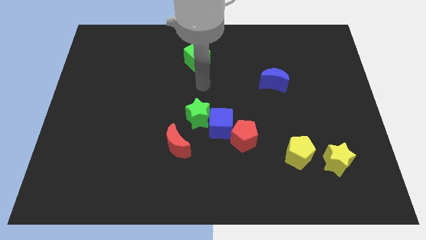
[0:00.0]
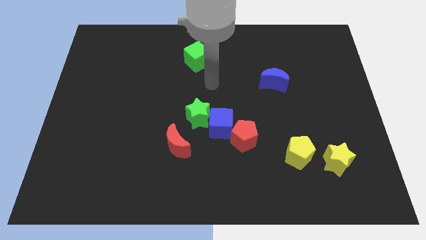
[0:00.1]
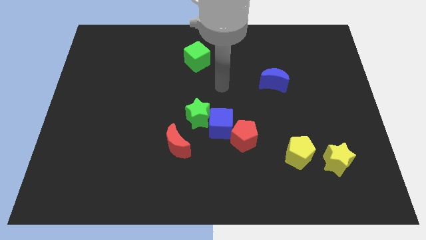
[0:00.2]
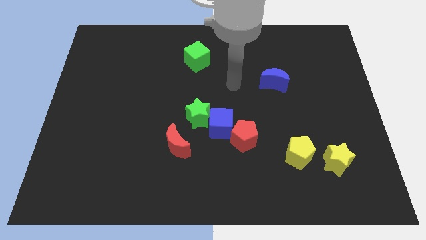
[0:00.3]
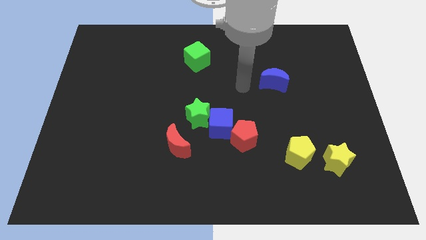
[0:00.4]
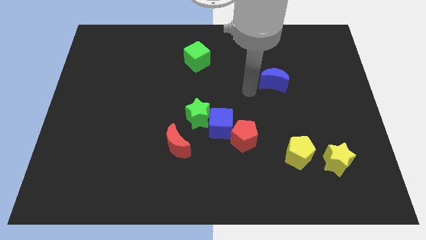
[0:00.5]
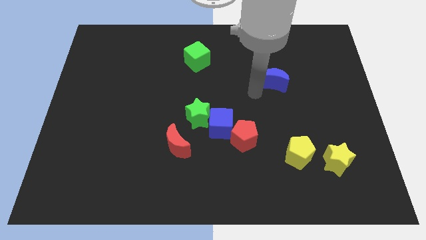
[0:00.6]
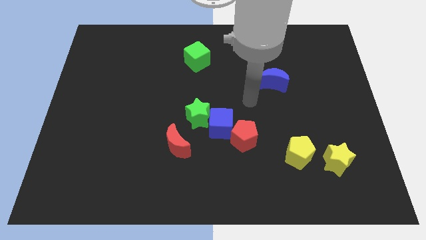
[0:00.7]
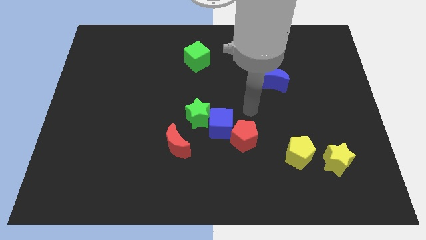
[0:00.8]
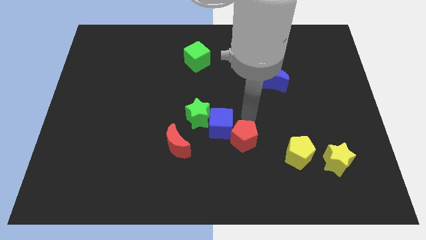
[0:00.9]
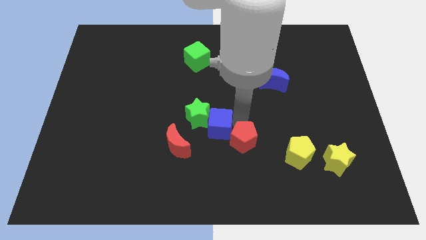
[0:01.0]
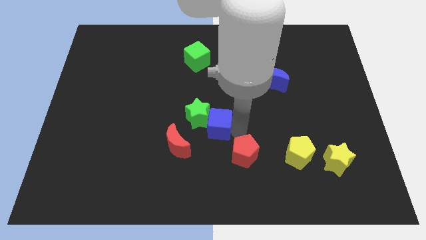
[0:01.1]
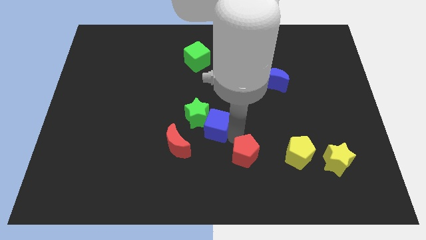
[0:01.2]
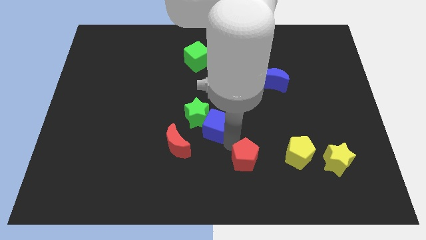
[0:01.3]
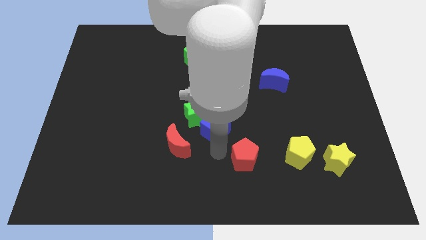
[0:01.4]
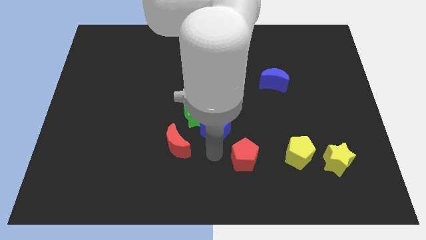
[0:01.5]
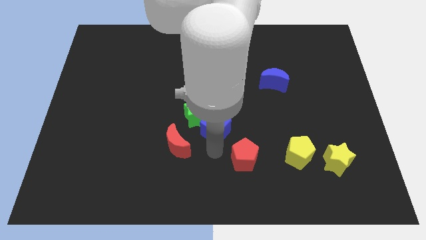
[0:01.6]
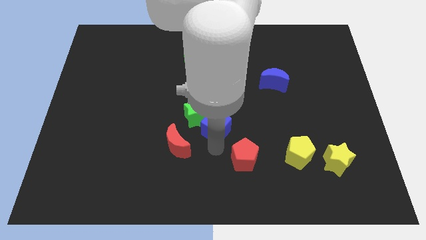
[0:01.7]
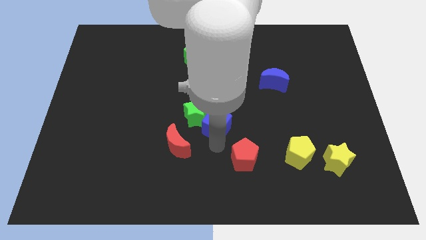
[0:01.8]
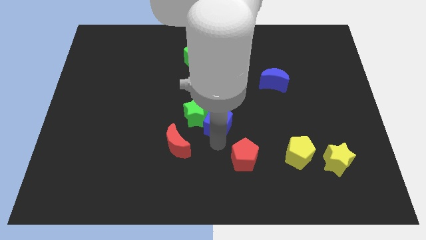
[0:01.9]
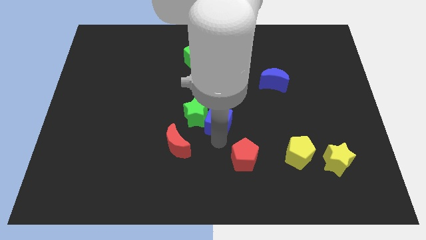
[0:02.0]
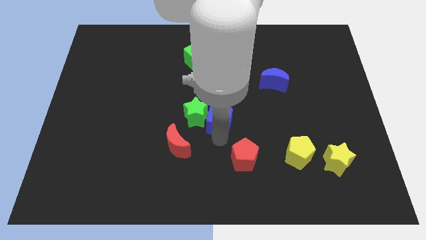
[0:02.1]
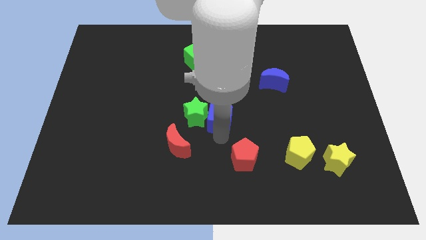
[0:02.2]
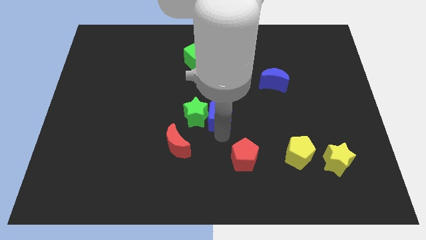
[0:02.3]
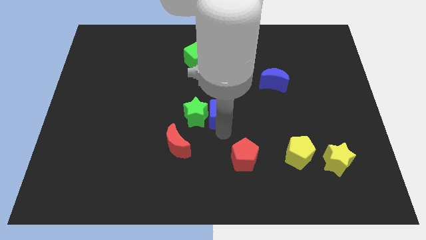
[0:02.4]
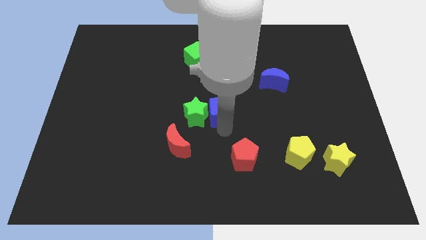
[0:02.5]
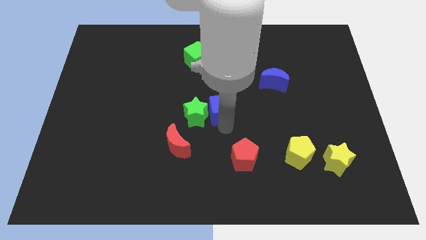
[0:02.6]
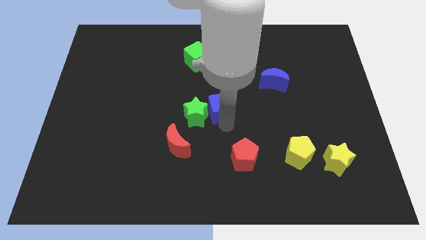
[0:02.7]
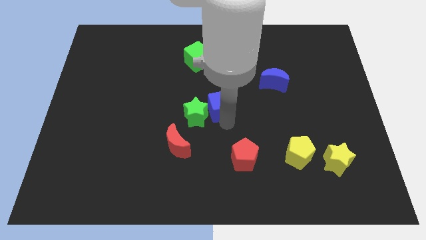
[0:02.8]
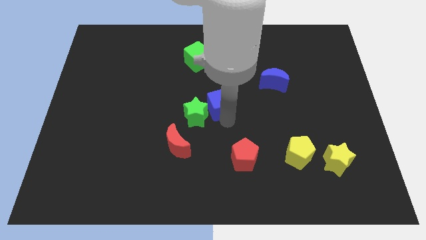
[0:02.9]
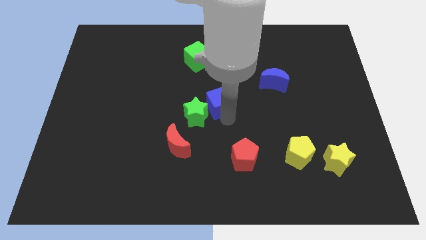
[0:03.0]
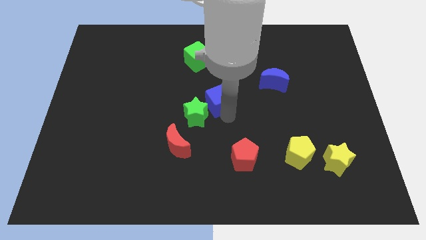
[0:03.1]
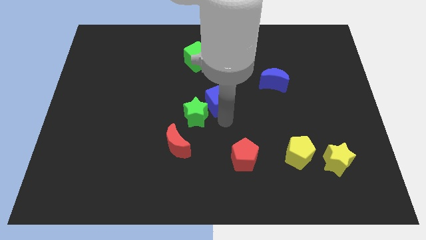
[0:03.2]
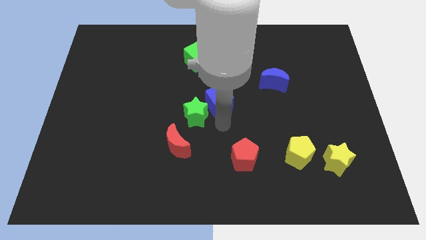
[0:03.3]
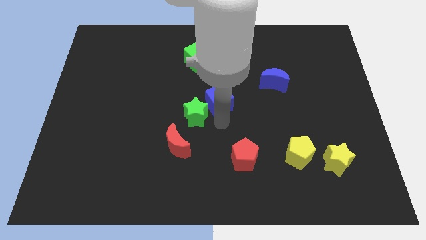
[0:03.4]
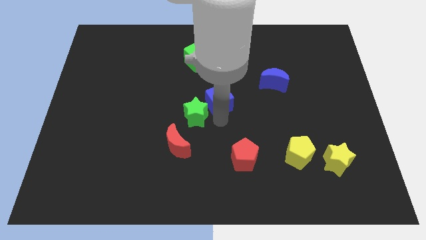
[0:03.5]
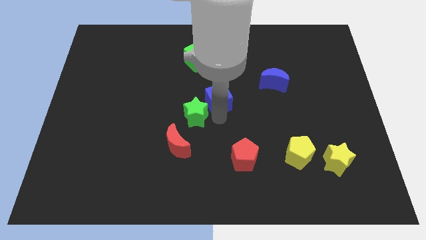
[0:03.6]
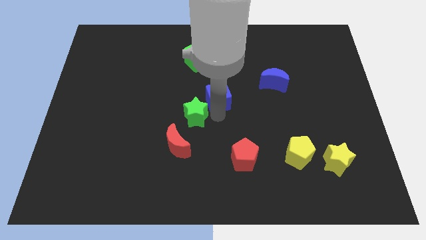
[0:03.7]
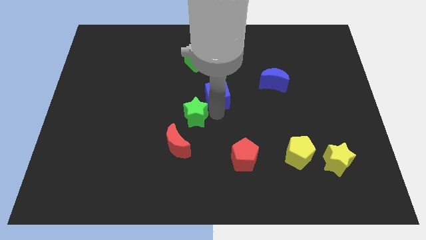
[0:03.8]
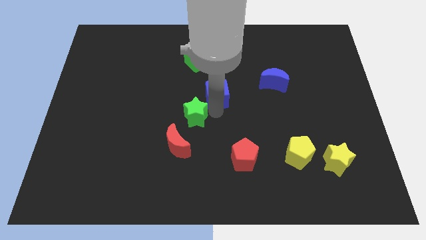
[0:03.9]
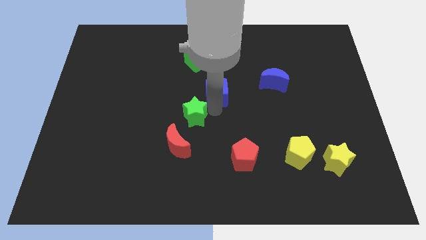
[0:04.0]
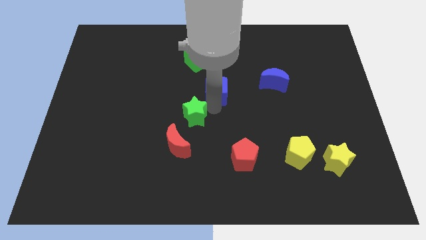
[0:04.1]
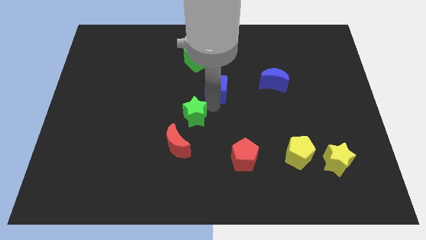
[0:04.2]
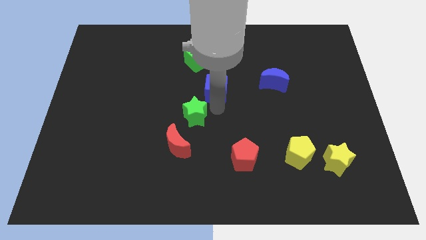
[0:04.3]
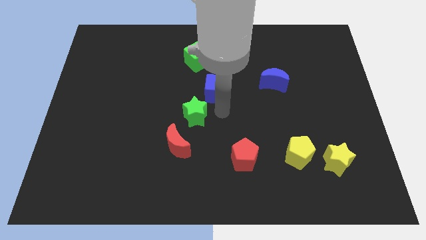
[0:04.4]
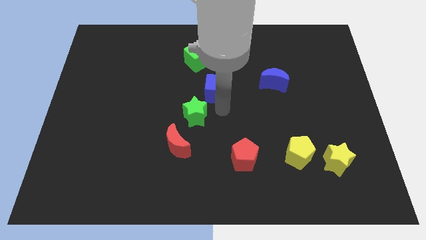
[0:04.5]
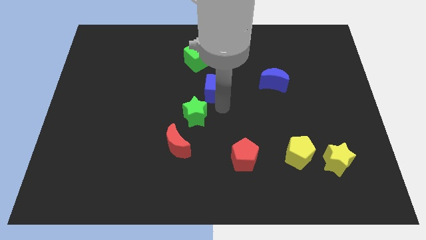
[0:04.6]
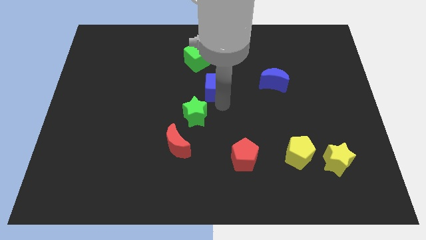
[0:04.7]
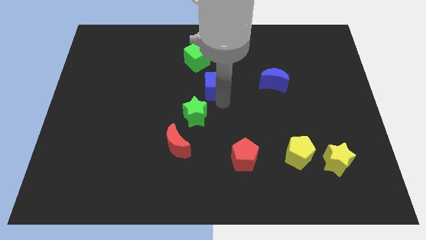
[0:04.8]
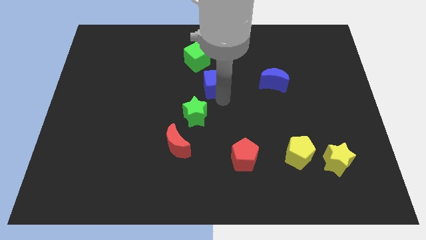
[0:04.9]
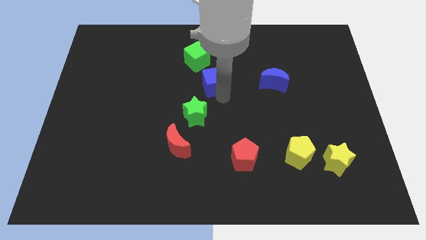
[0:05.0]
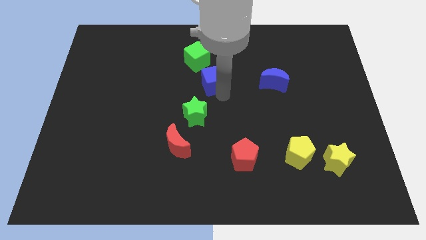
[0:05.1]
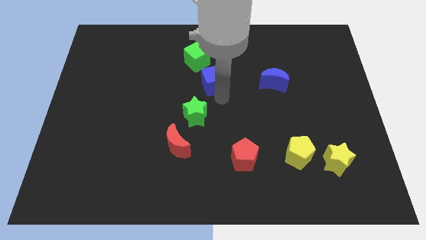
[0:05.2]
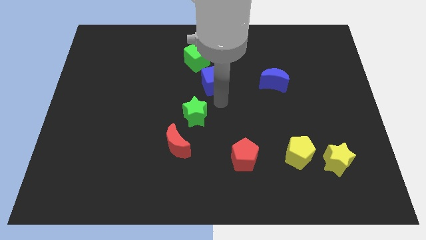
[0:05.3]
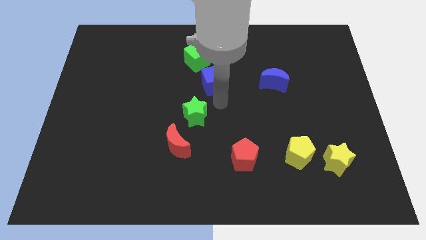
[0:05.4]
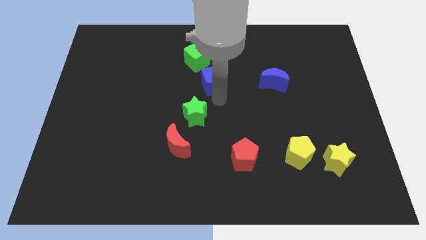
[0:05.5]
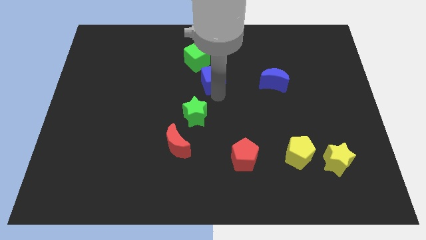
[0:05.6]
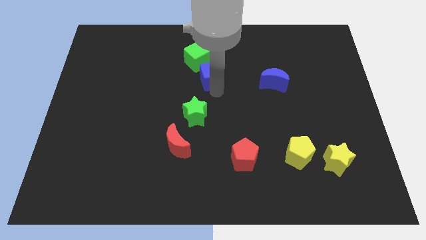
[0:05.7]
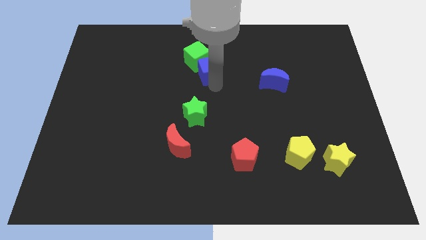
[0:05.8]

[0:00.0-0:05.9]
move the blue cube close to the green cube

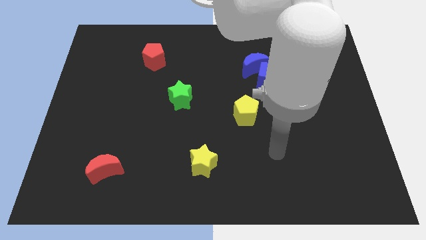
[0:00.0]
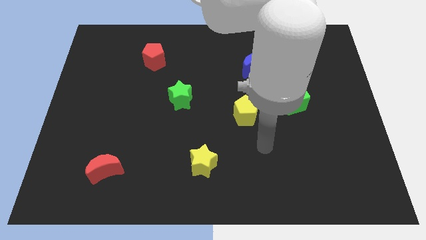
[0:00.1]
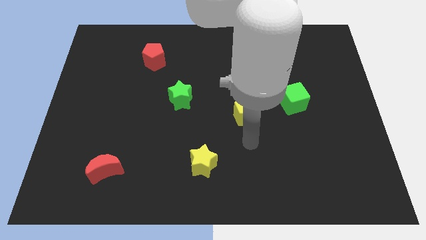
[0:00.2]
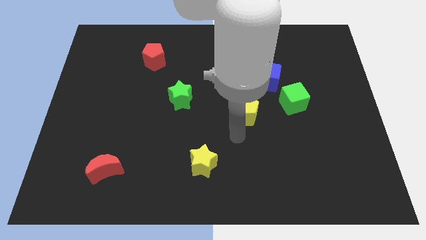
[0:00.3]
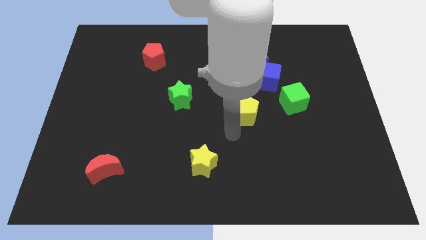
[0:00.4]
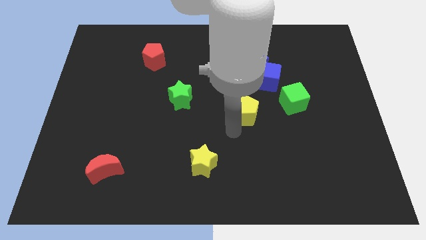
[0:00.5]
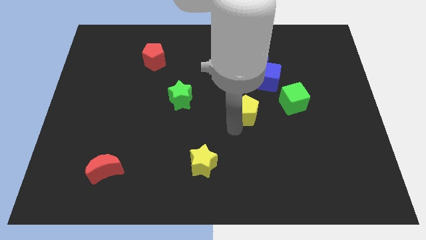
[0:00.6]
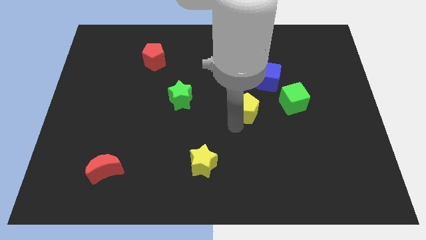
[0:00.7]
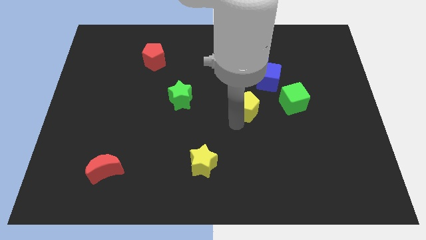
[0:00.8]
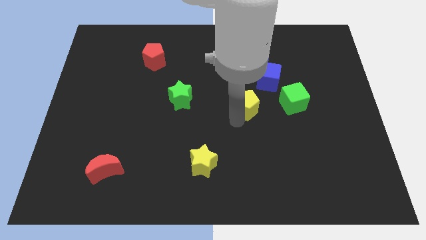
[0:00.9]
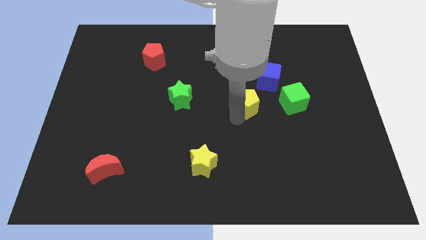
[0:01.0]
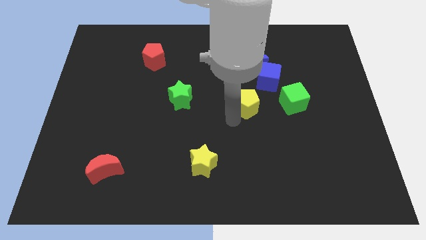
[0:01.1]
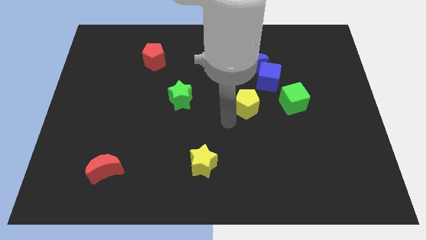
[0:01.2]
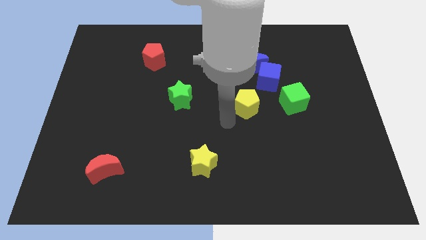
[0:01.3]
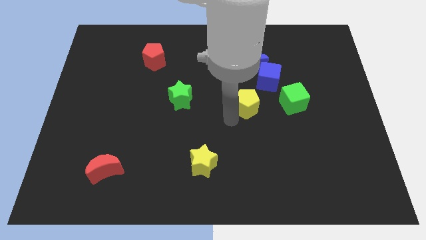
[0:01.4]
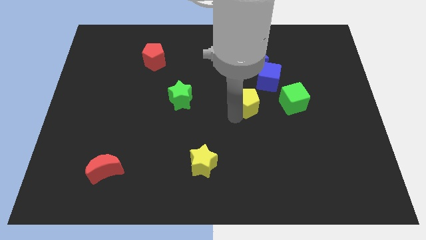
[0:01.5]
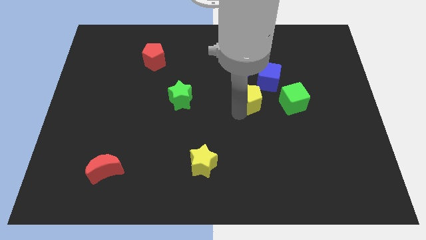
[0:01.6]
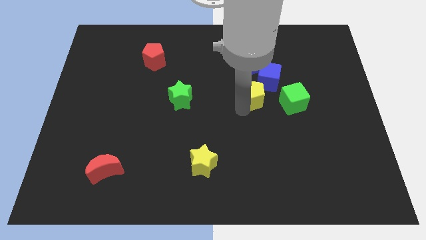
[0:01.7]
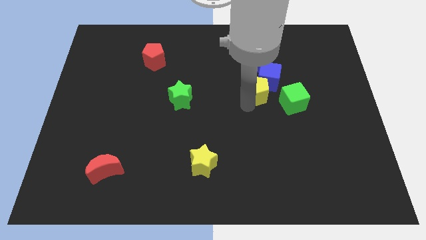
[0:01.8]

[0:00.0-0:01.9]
slide the yellow pentagon close to the blue cube
